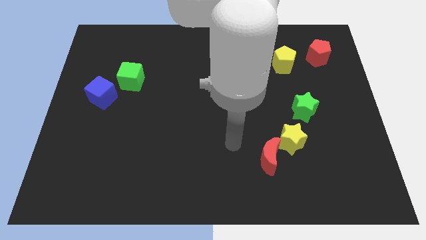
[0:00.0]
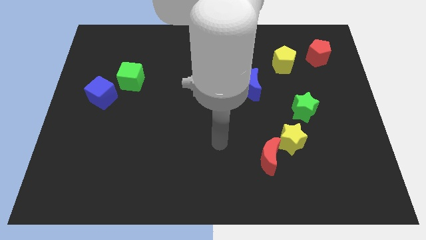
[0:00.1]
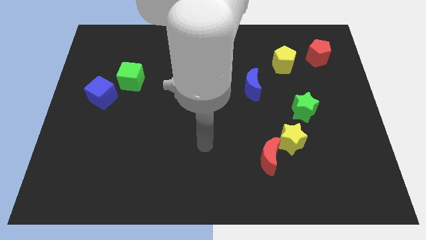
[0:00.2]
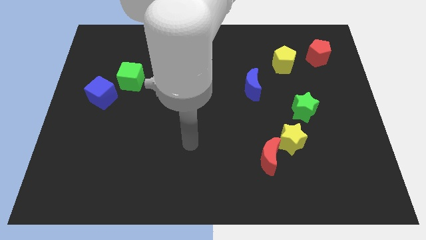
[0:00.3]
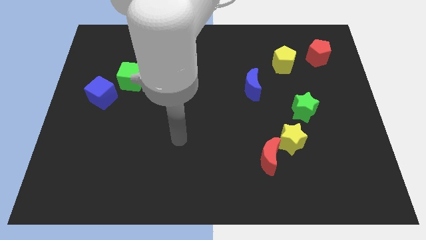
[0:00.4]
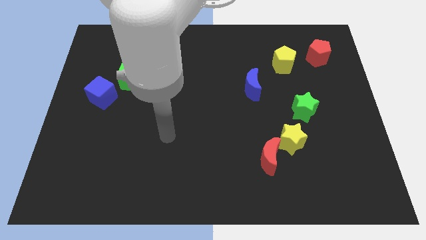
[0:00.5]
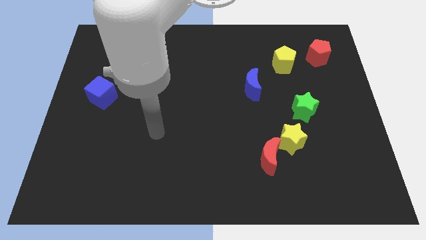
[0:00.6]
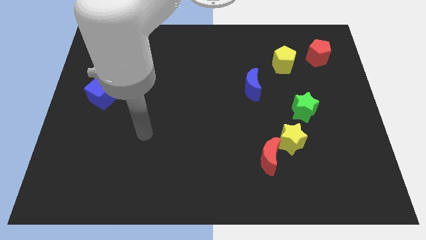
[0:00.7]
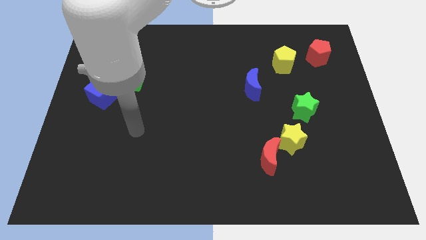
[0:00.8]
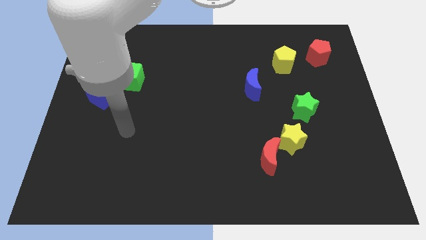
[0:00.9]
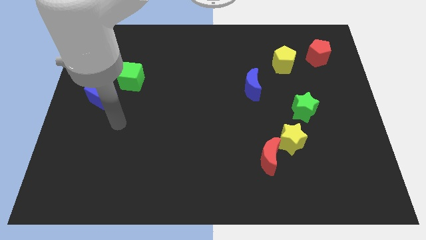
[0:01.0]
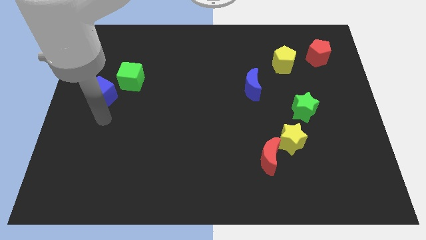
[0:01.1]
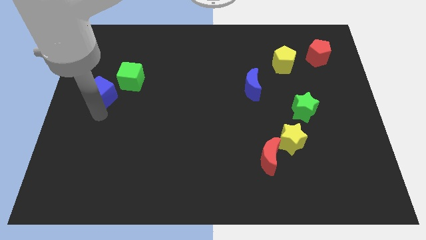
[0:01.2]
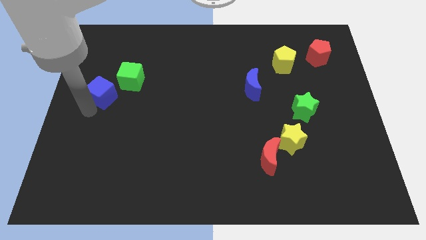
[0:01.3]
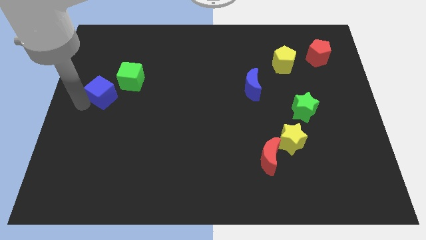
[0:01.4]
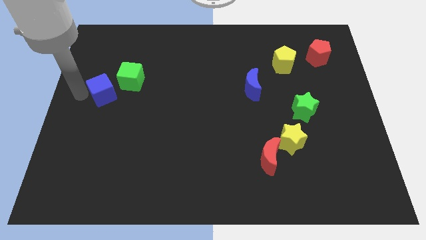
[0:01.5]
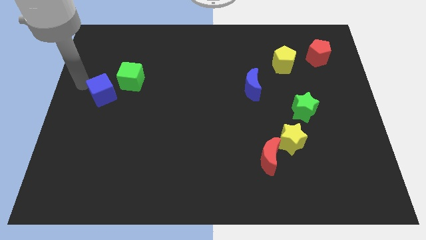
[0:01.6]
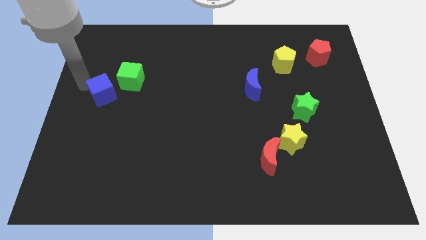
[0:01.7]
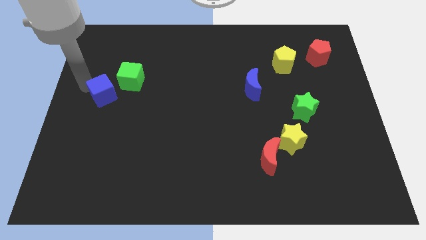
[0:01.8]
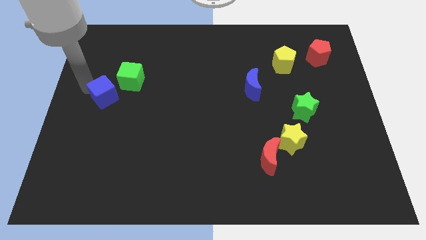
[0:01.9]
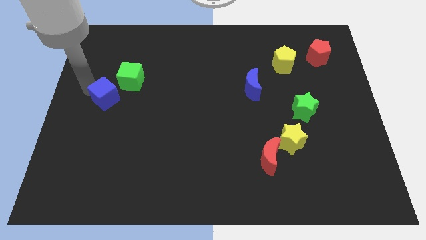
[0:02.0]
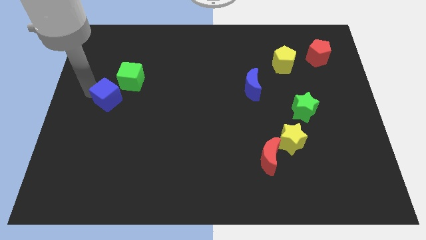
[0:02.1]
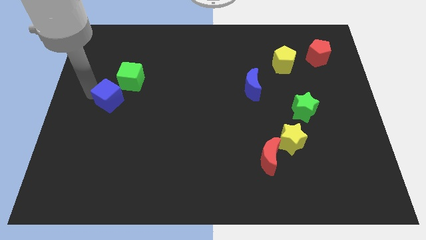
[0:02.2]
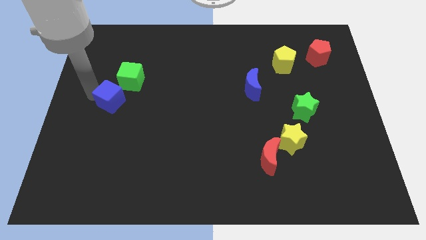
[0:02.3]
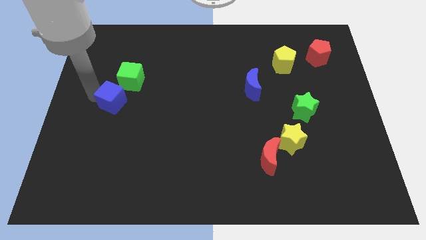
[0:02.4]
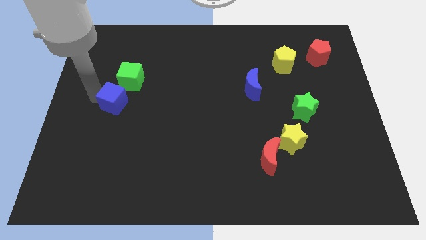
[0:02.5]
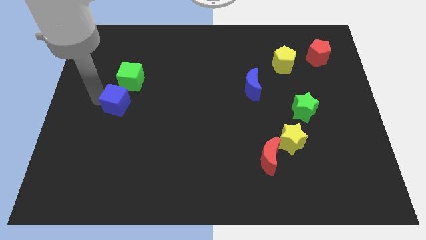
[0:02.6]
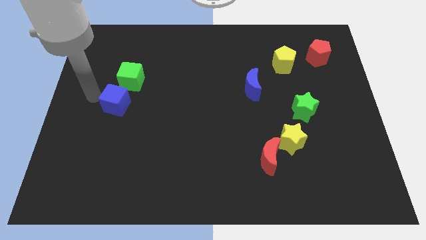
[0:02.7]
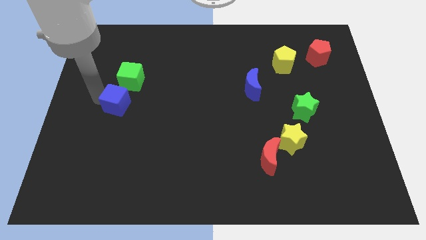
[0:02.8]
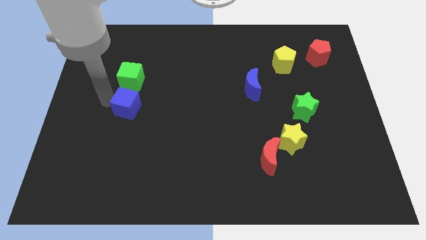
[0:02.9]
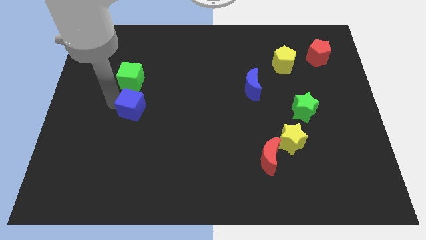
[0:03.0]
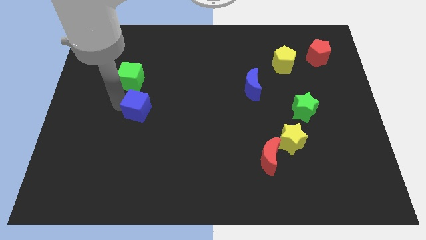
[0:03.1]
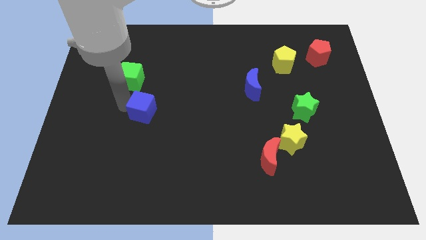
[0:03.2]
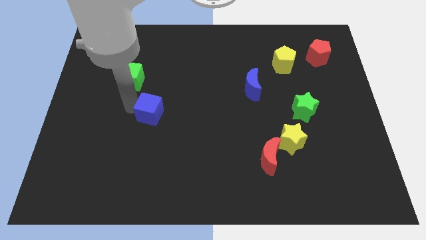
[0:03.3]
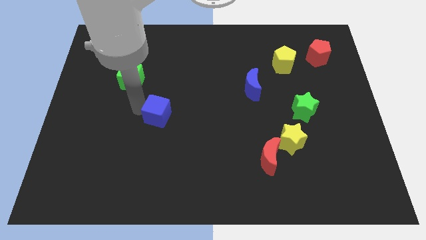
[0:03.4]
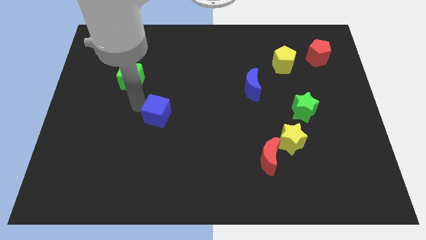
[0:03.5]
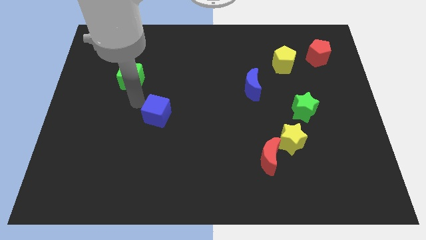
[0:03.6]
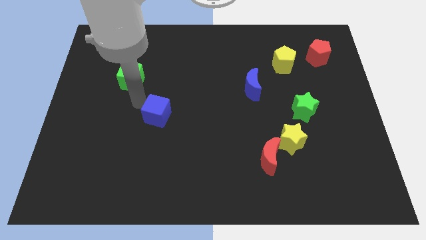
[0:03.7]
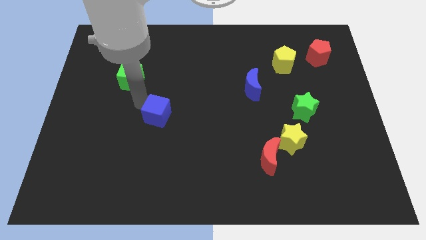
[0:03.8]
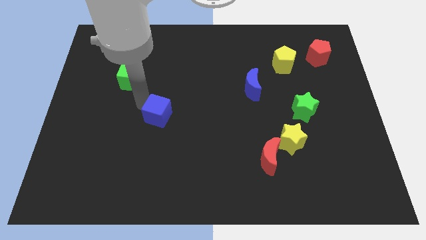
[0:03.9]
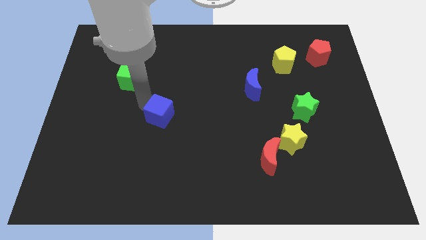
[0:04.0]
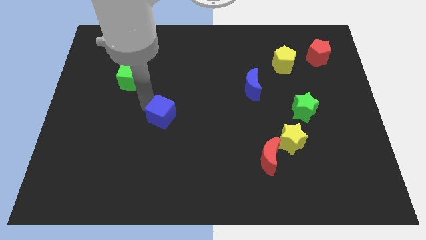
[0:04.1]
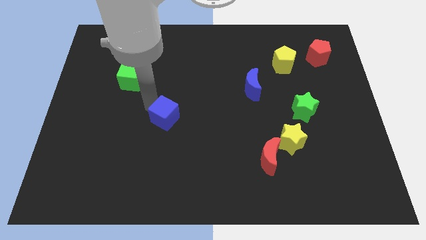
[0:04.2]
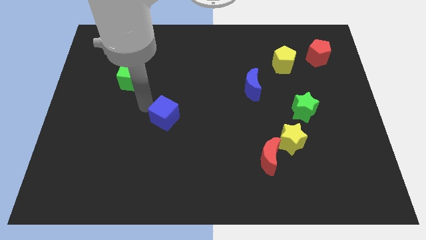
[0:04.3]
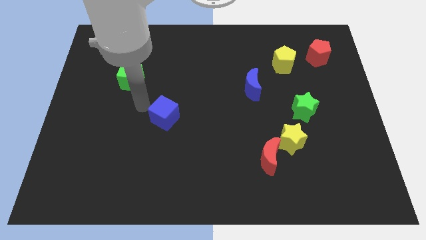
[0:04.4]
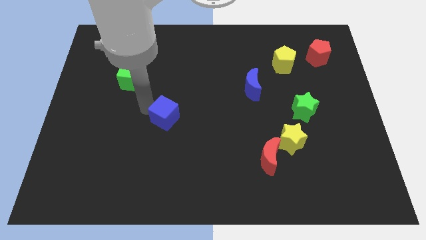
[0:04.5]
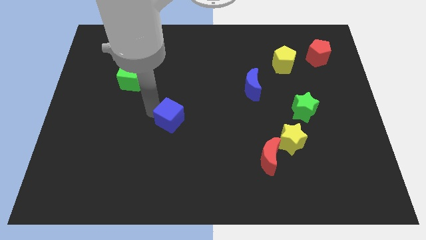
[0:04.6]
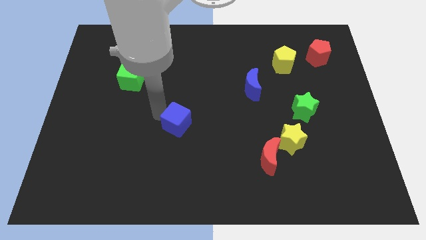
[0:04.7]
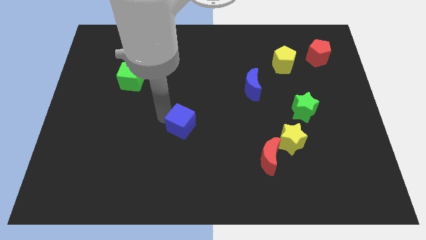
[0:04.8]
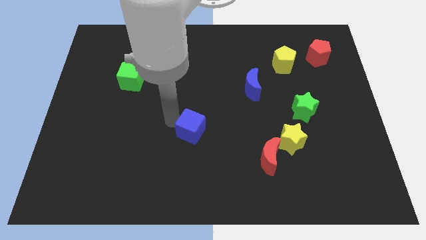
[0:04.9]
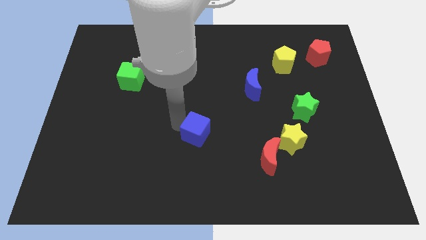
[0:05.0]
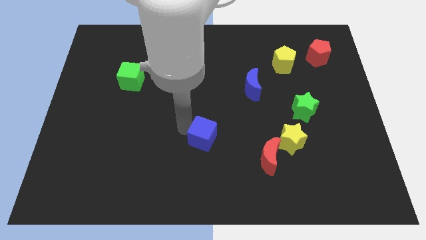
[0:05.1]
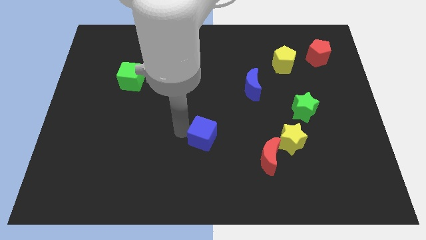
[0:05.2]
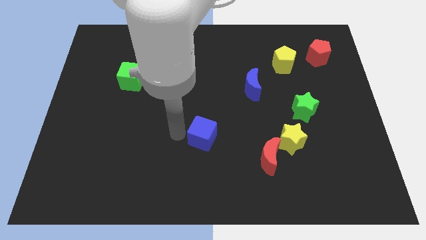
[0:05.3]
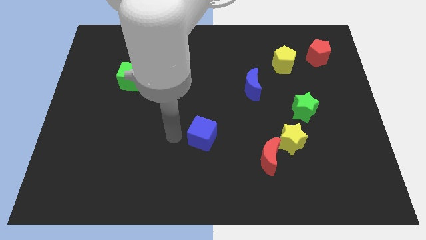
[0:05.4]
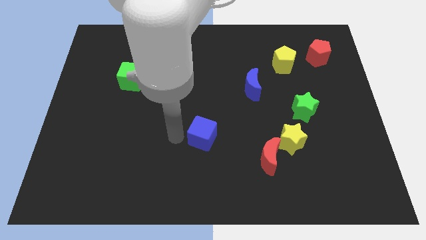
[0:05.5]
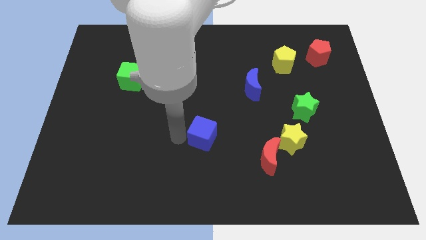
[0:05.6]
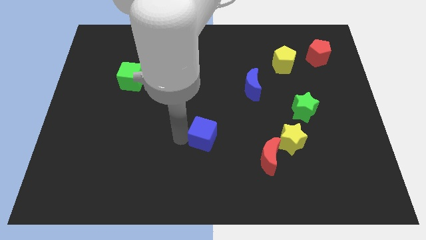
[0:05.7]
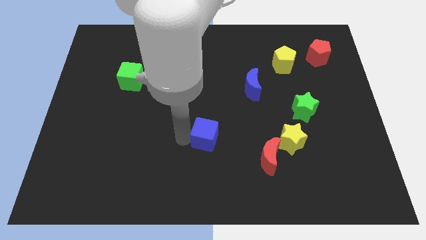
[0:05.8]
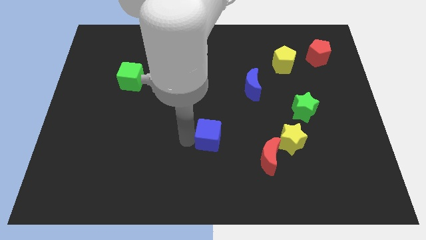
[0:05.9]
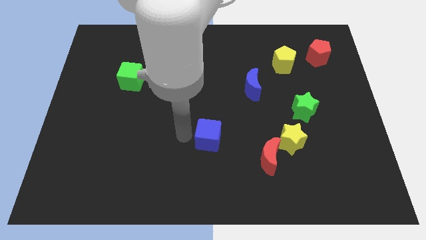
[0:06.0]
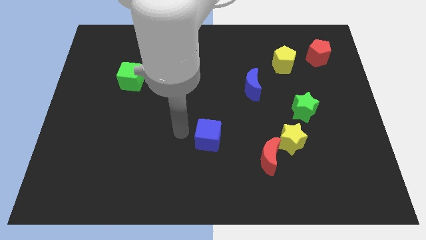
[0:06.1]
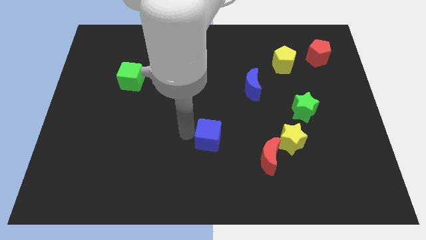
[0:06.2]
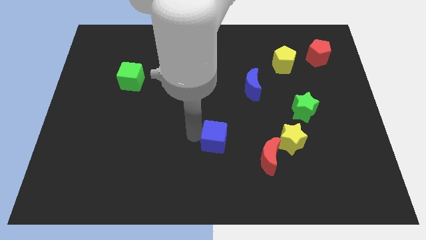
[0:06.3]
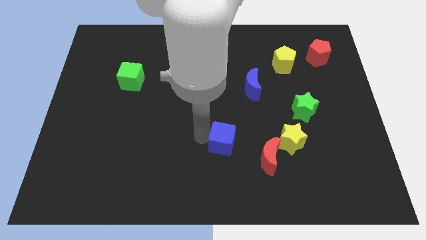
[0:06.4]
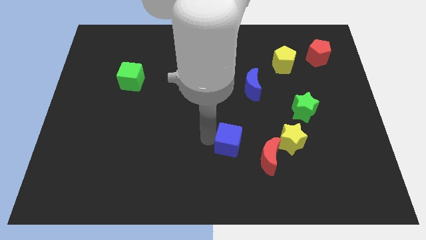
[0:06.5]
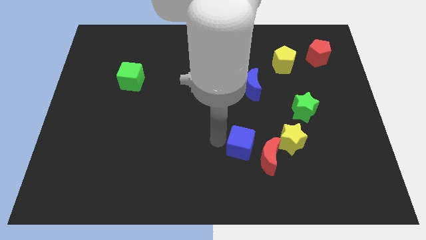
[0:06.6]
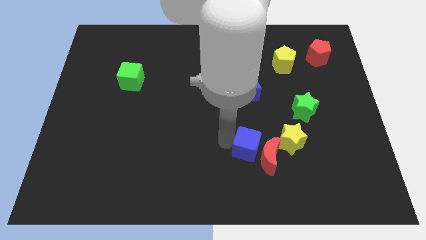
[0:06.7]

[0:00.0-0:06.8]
push the blue cube close to the red moon
